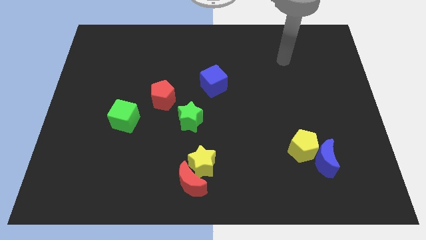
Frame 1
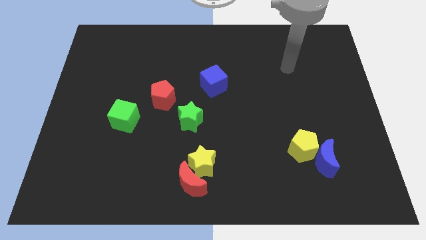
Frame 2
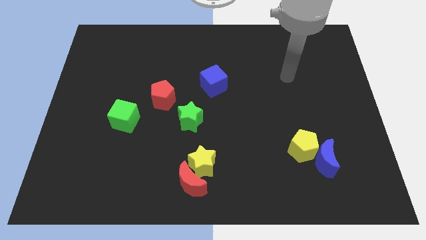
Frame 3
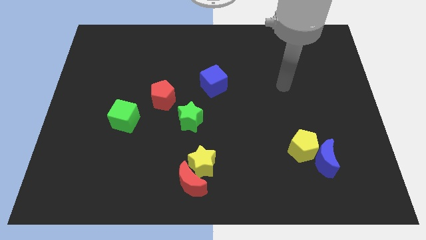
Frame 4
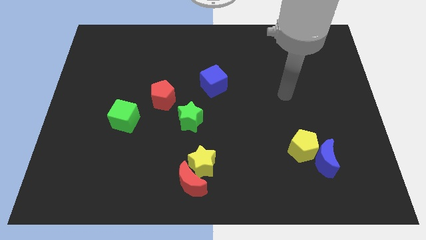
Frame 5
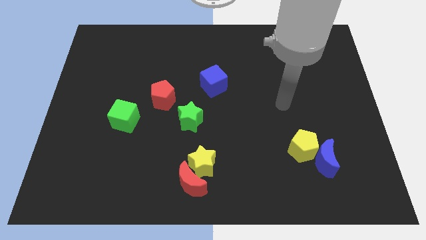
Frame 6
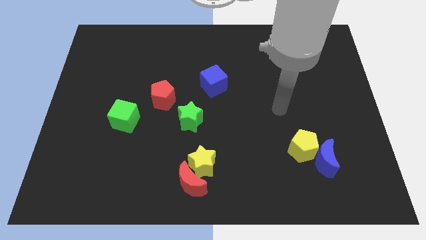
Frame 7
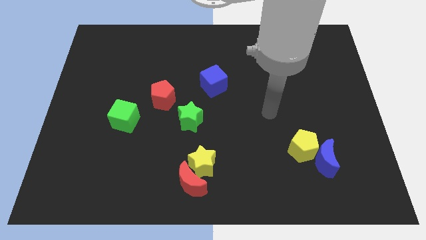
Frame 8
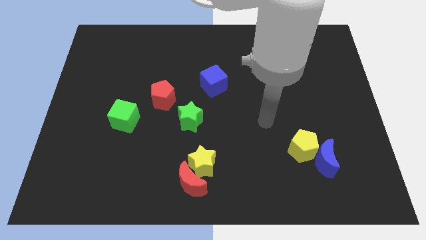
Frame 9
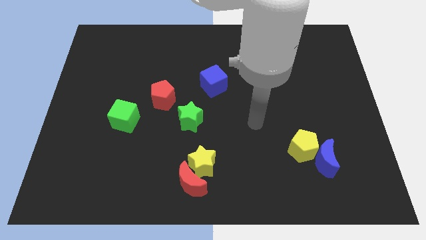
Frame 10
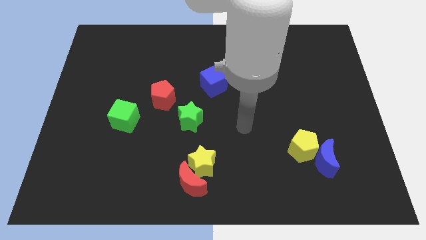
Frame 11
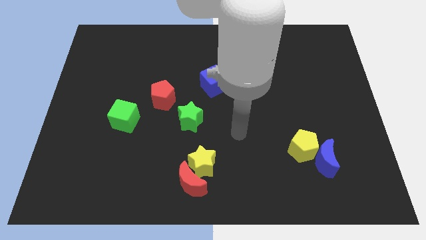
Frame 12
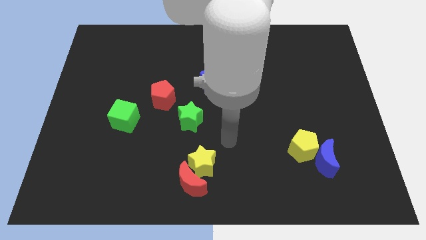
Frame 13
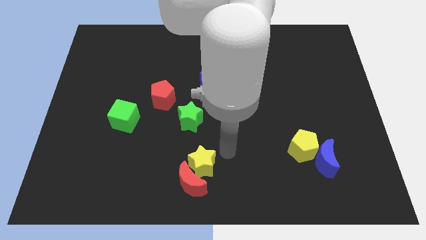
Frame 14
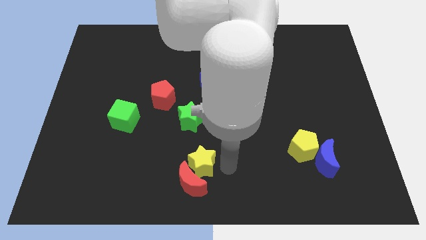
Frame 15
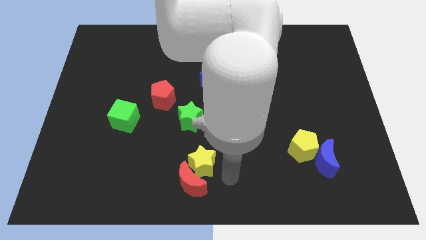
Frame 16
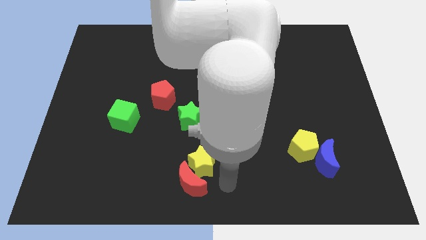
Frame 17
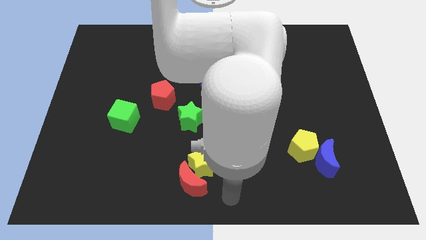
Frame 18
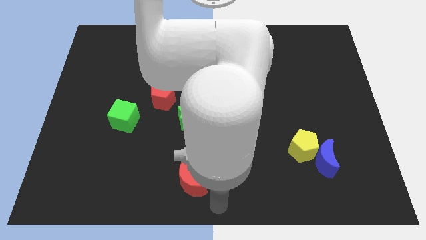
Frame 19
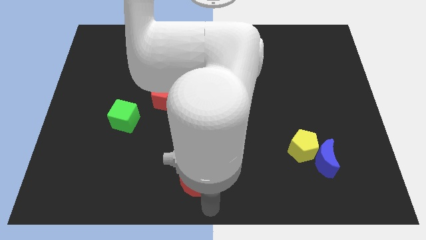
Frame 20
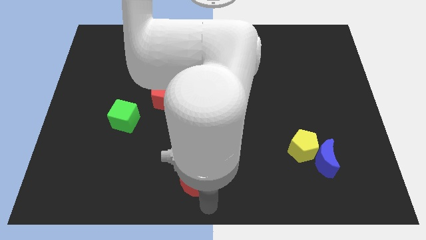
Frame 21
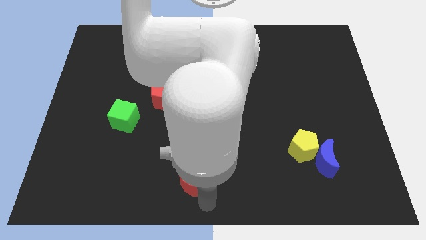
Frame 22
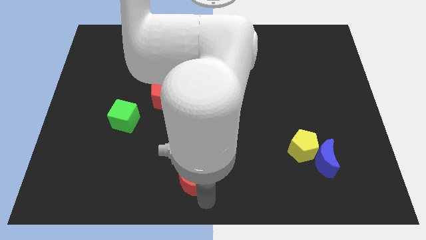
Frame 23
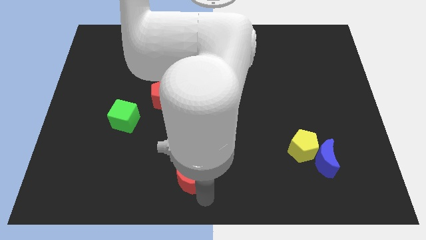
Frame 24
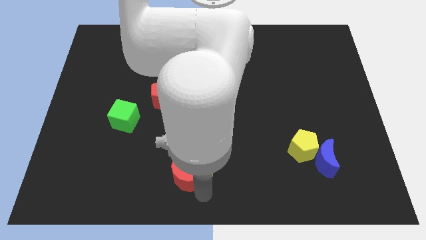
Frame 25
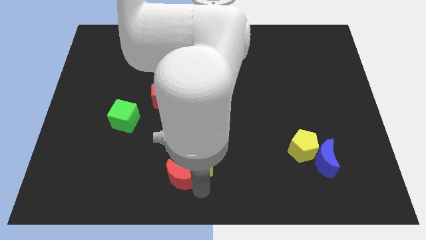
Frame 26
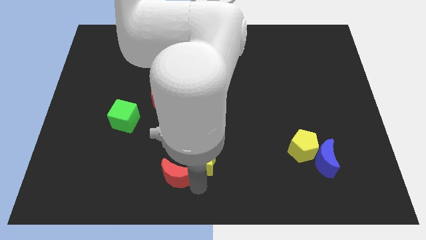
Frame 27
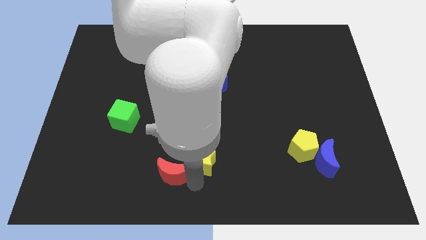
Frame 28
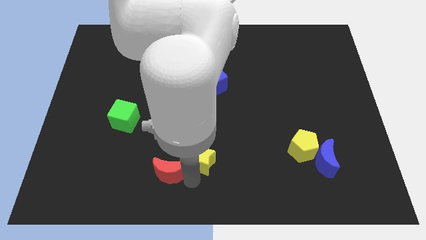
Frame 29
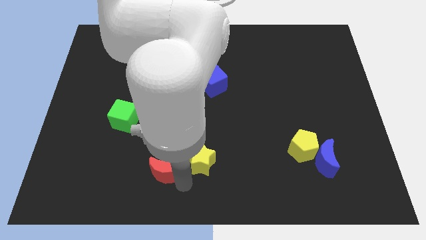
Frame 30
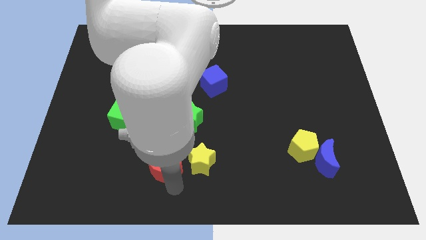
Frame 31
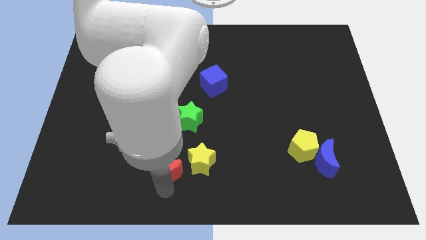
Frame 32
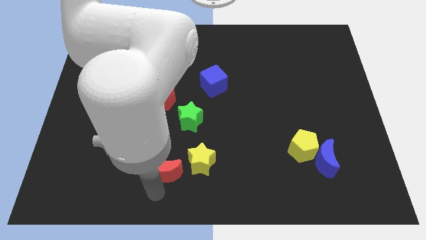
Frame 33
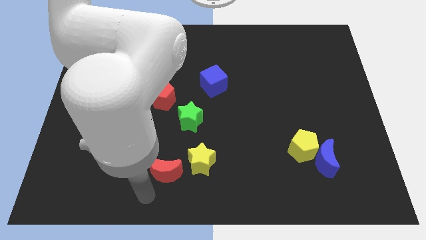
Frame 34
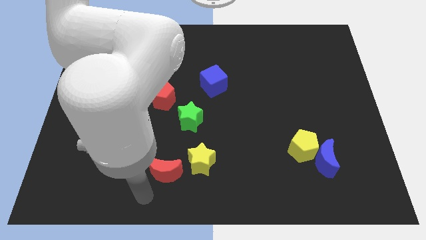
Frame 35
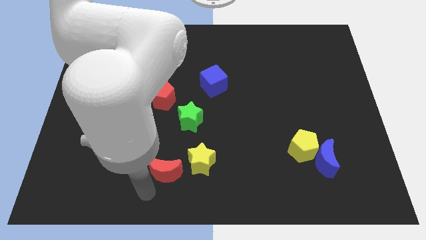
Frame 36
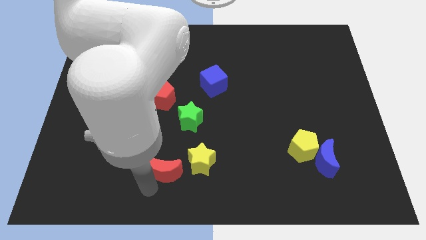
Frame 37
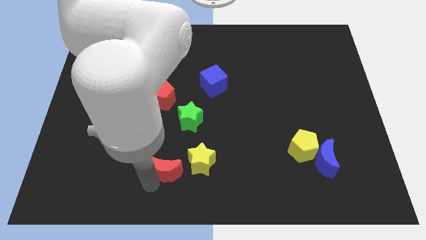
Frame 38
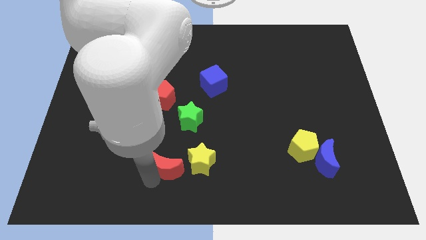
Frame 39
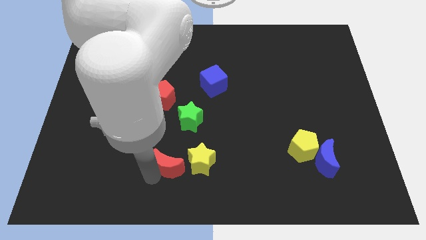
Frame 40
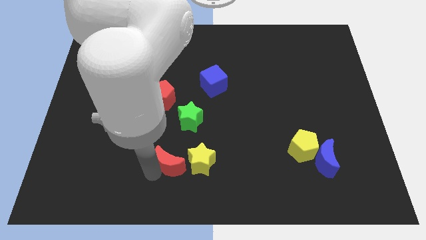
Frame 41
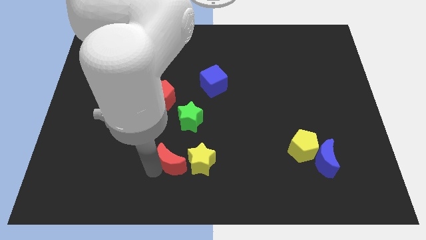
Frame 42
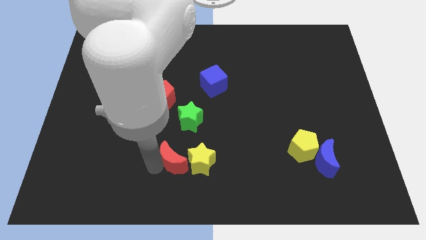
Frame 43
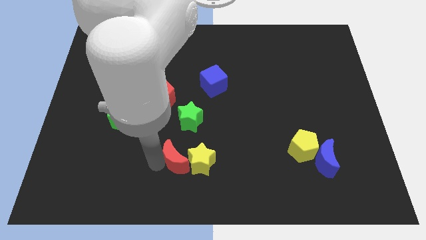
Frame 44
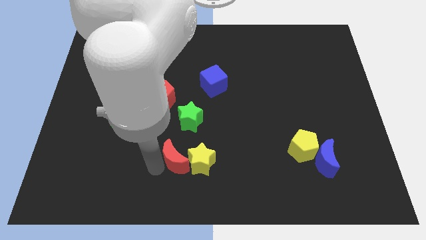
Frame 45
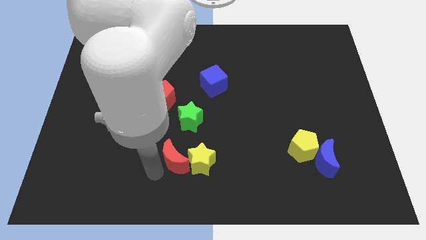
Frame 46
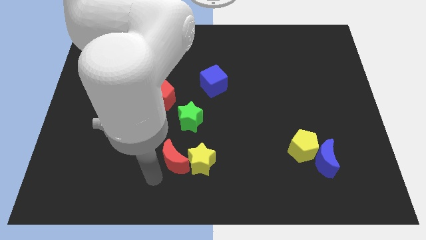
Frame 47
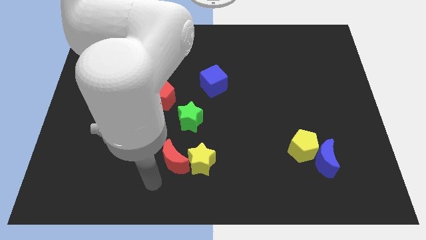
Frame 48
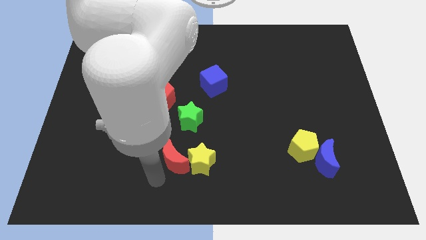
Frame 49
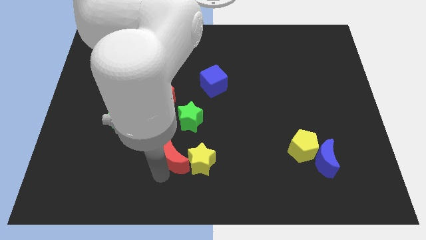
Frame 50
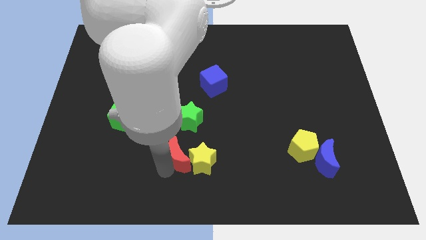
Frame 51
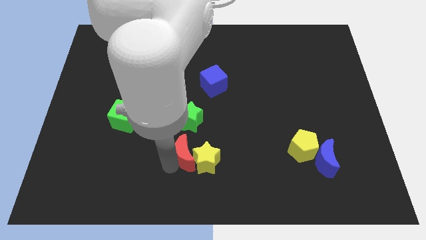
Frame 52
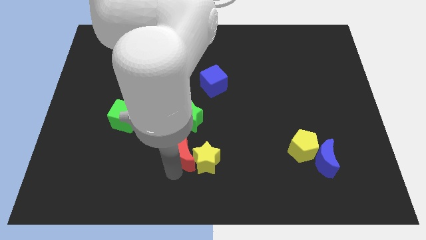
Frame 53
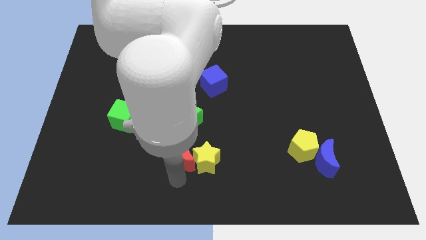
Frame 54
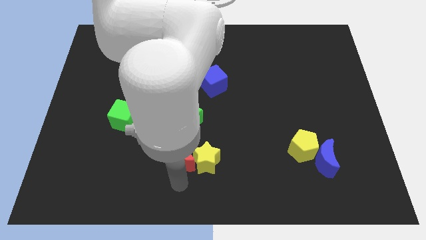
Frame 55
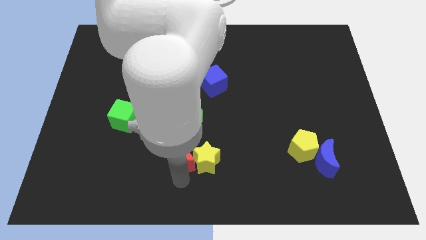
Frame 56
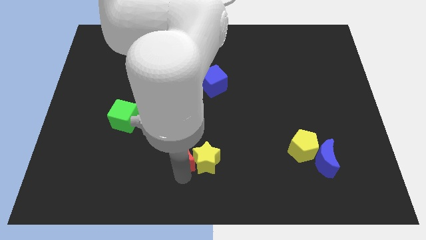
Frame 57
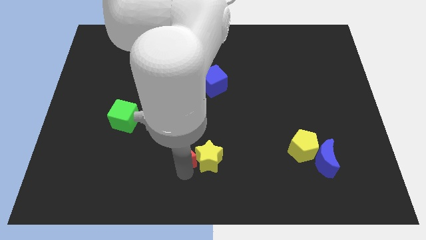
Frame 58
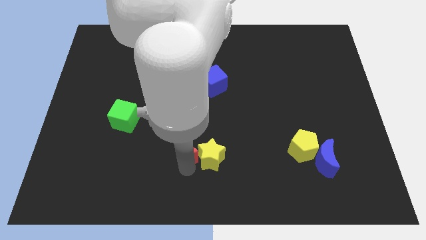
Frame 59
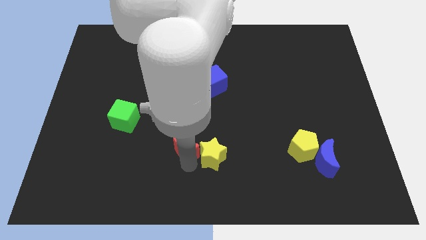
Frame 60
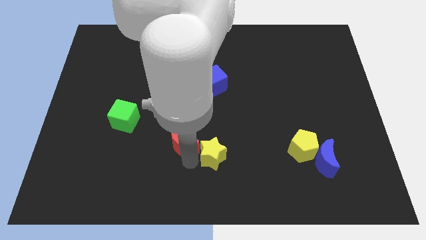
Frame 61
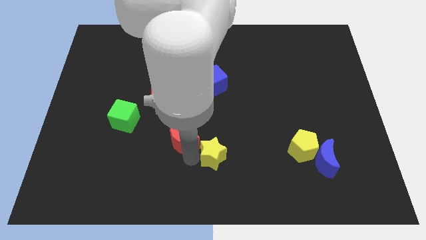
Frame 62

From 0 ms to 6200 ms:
move the red moon next to the green star

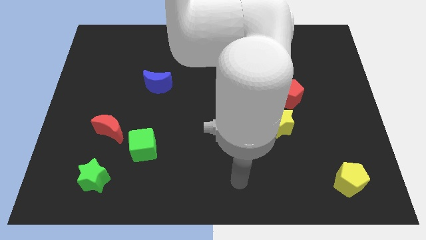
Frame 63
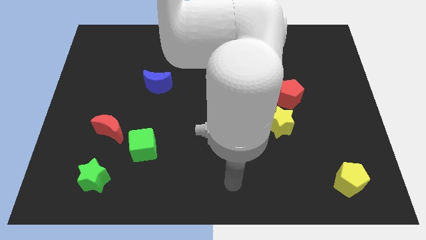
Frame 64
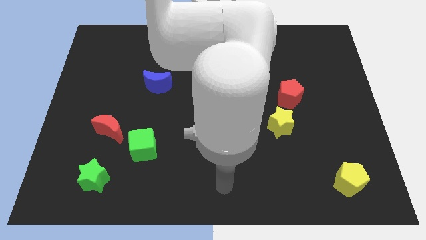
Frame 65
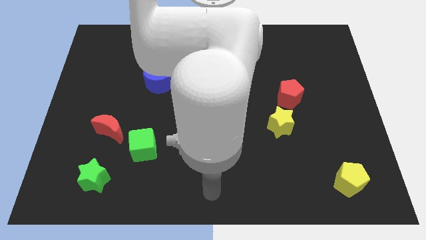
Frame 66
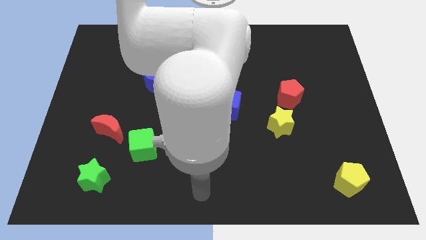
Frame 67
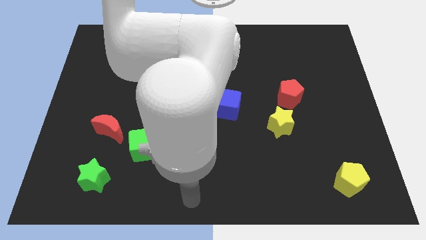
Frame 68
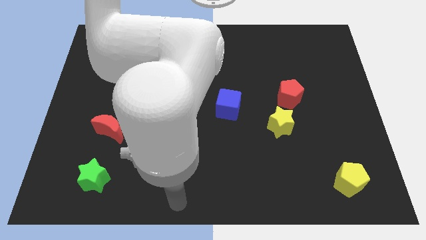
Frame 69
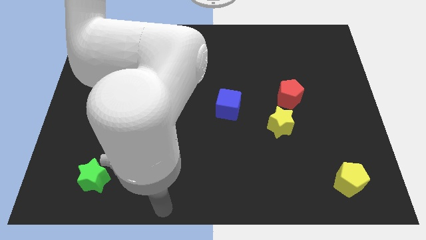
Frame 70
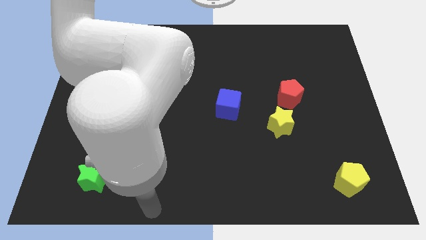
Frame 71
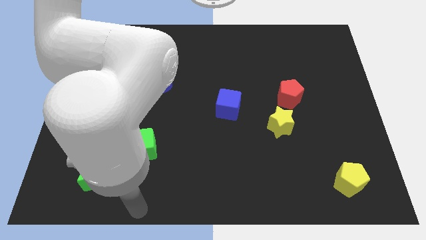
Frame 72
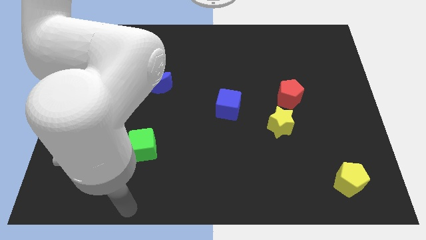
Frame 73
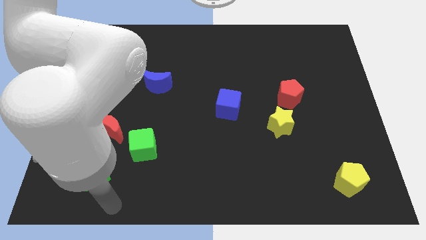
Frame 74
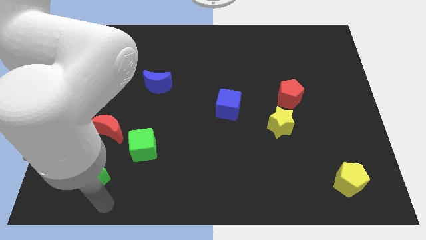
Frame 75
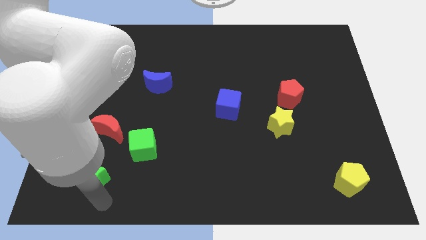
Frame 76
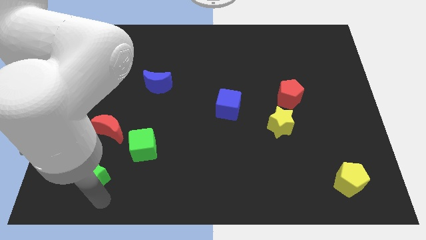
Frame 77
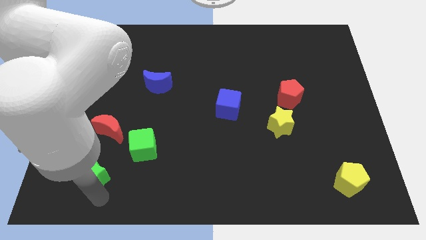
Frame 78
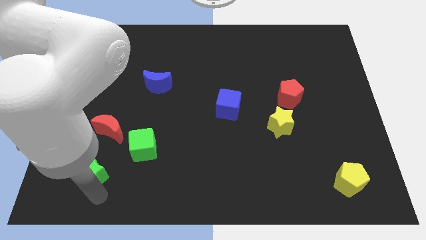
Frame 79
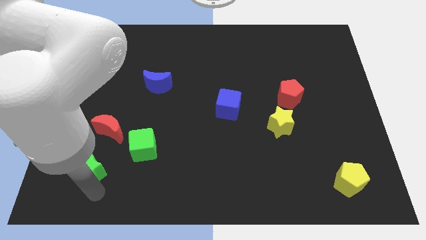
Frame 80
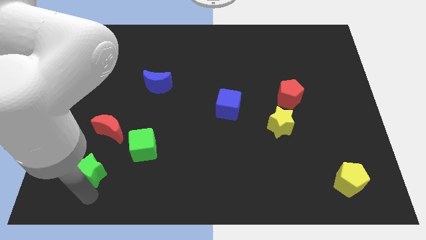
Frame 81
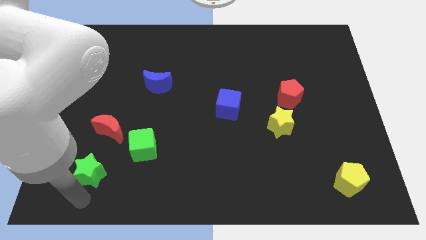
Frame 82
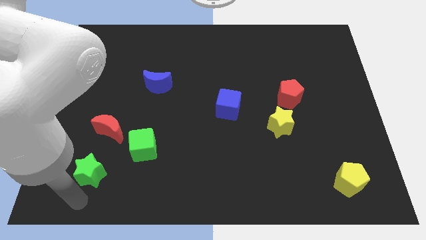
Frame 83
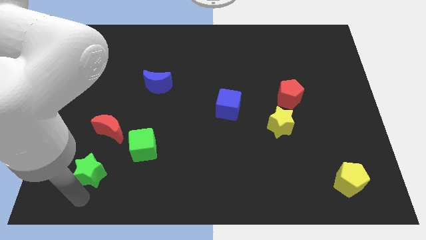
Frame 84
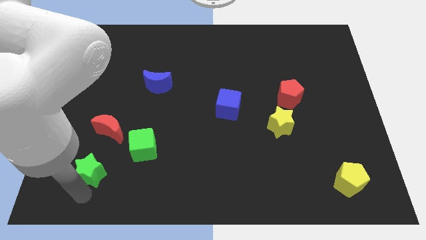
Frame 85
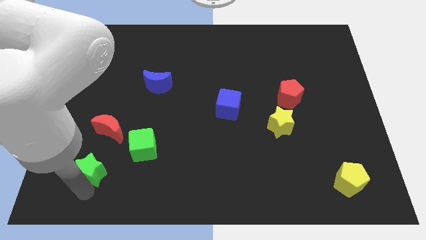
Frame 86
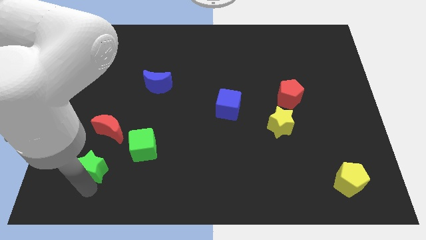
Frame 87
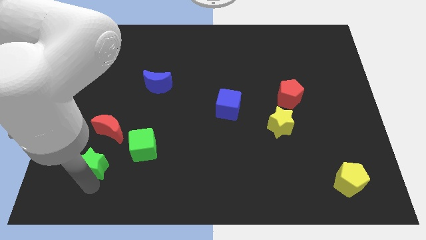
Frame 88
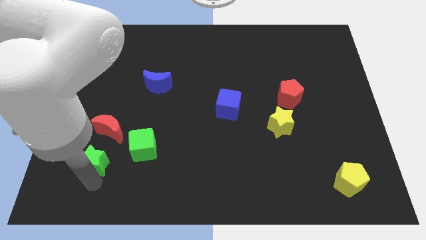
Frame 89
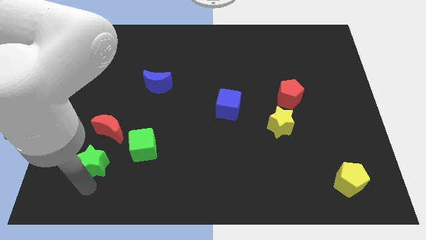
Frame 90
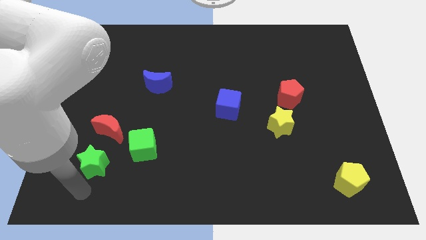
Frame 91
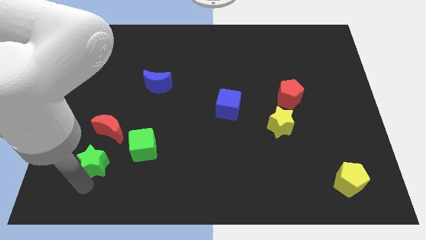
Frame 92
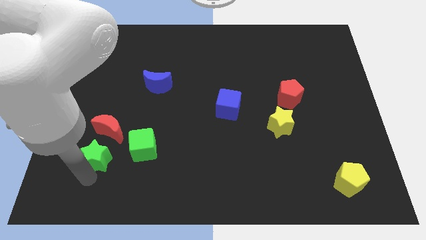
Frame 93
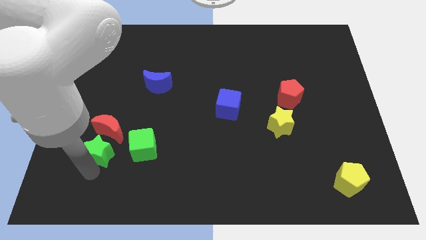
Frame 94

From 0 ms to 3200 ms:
put the green star towards the red moon
